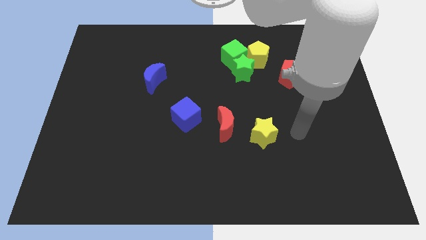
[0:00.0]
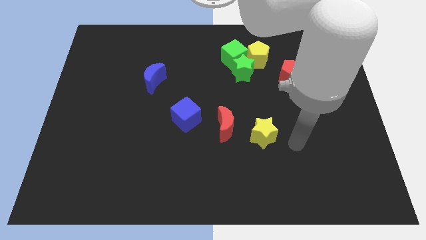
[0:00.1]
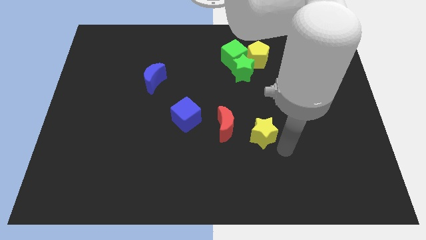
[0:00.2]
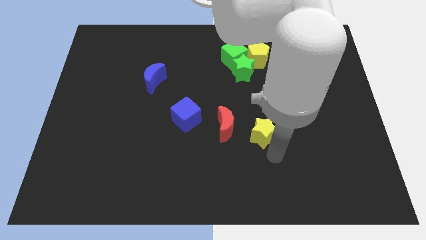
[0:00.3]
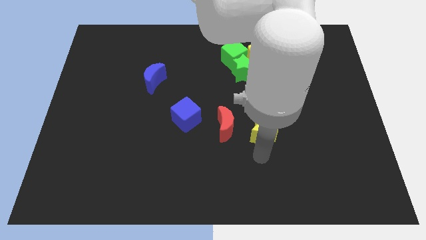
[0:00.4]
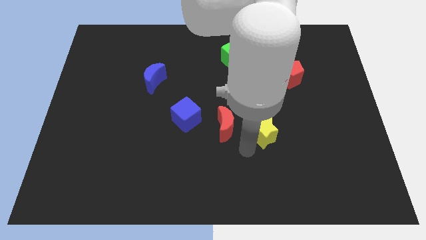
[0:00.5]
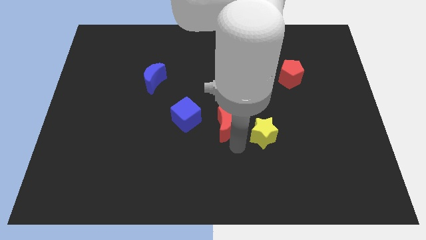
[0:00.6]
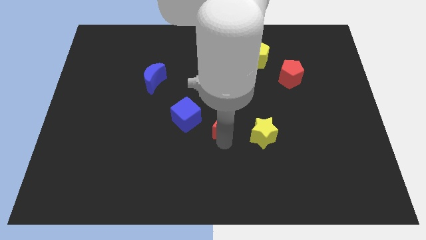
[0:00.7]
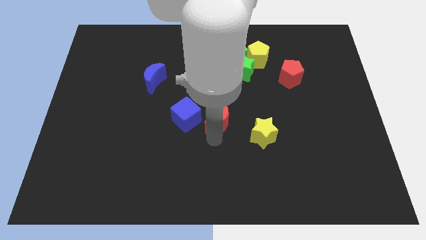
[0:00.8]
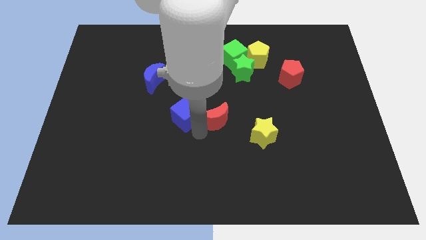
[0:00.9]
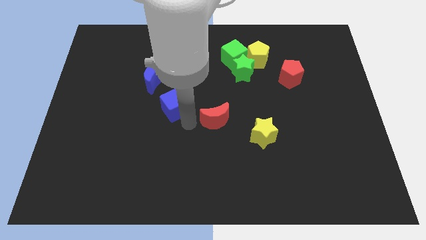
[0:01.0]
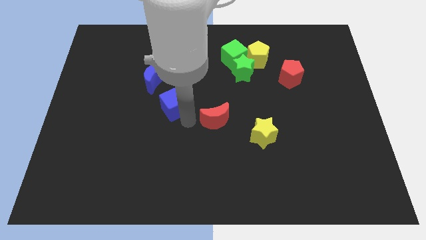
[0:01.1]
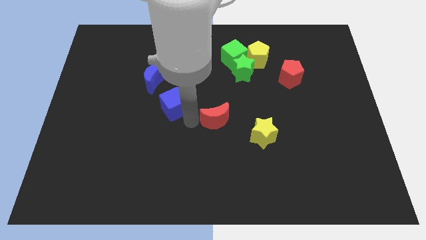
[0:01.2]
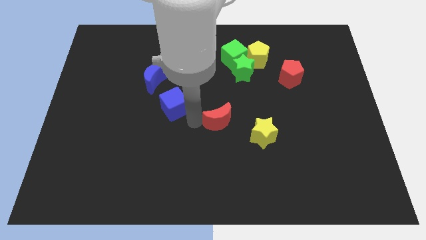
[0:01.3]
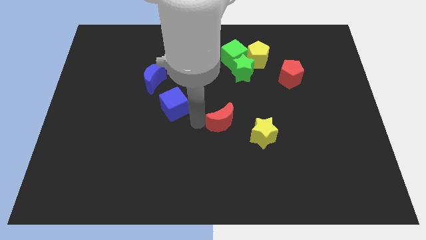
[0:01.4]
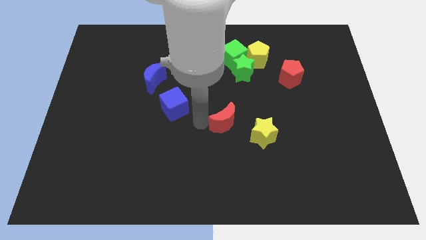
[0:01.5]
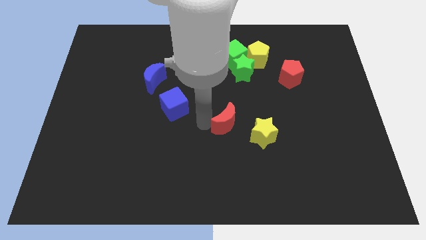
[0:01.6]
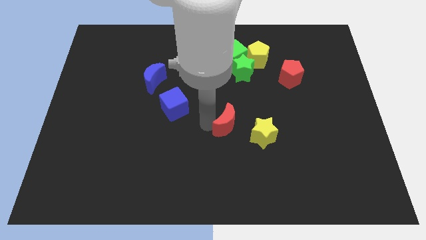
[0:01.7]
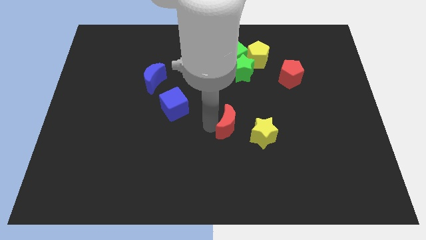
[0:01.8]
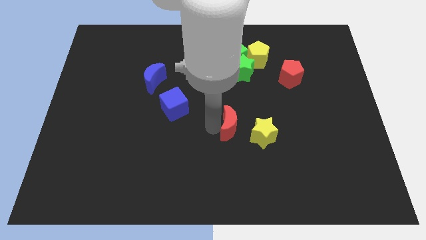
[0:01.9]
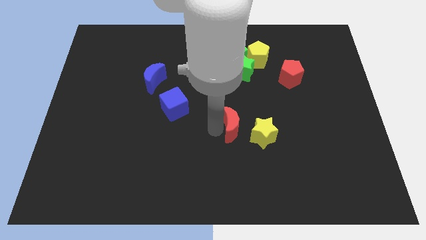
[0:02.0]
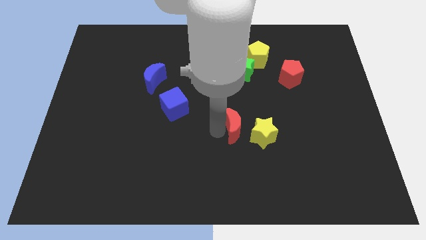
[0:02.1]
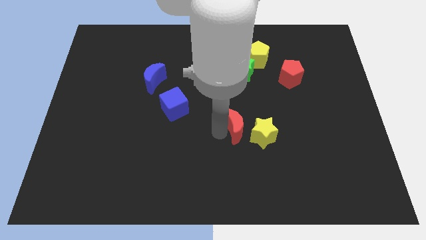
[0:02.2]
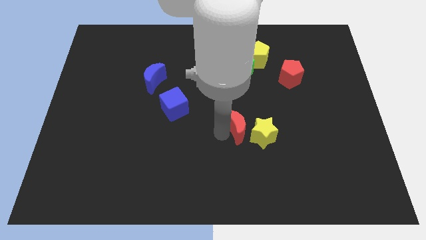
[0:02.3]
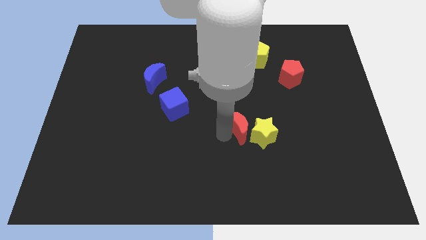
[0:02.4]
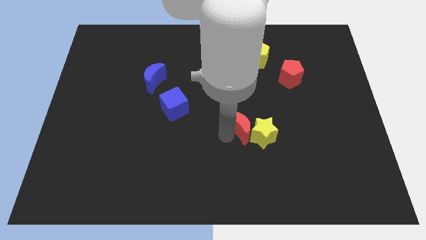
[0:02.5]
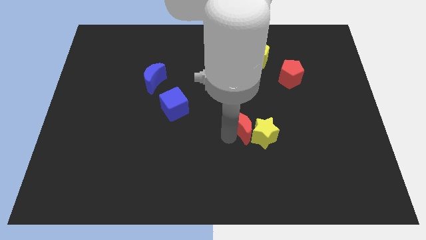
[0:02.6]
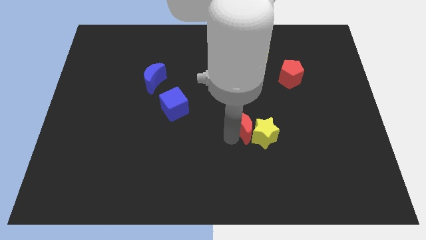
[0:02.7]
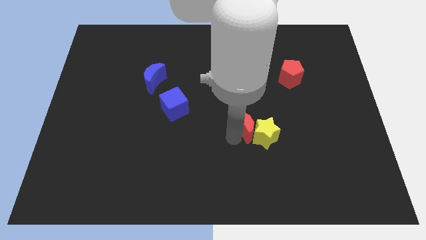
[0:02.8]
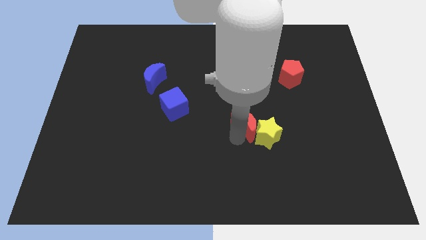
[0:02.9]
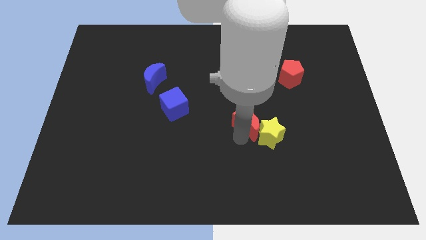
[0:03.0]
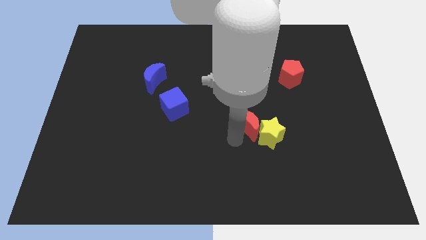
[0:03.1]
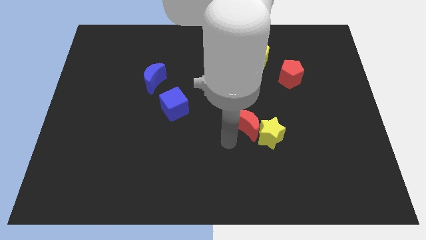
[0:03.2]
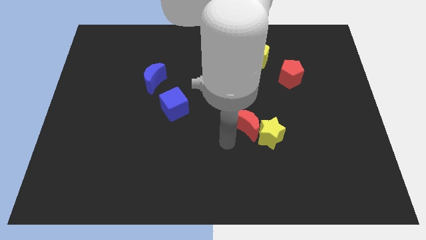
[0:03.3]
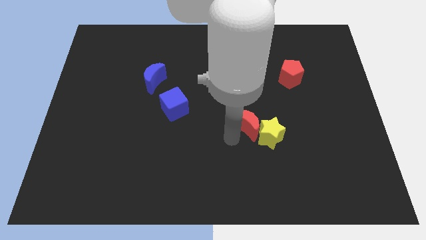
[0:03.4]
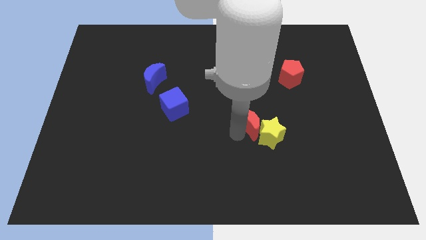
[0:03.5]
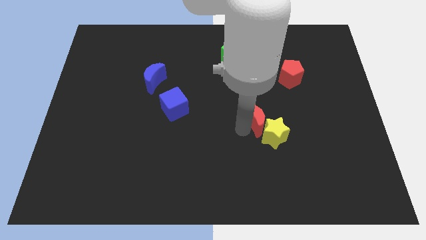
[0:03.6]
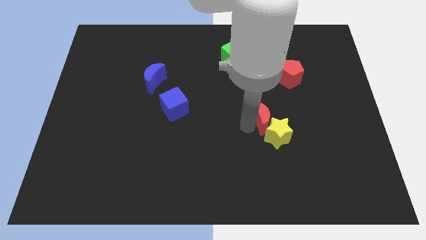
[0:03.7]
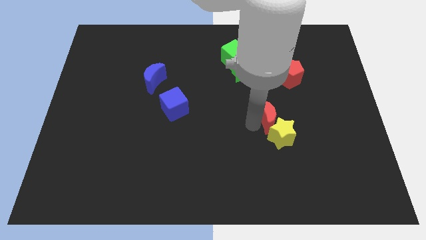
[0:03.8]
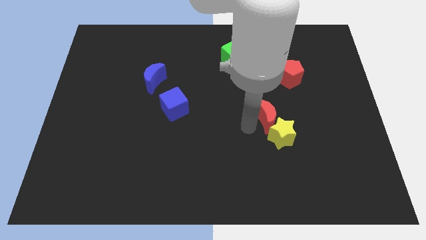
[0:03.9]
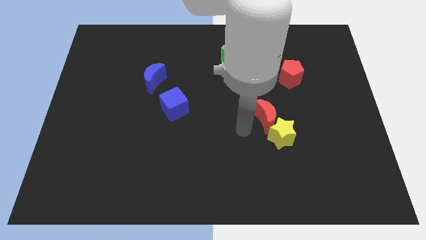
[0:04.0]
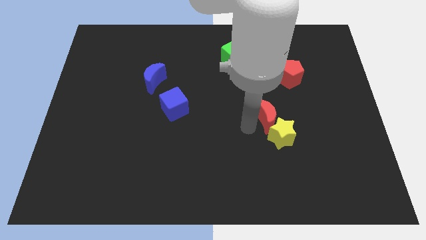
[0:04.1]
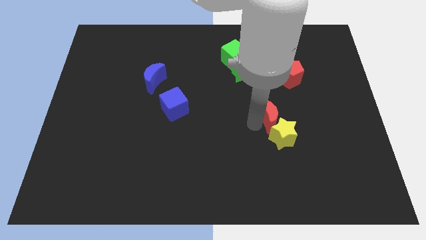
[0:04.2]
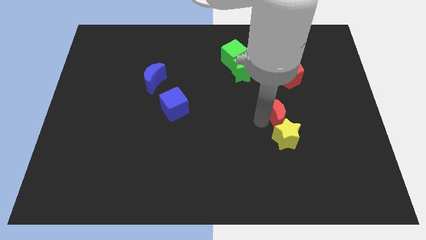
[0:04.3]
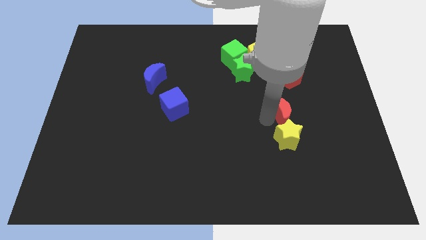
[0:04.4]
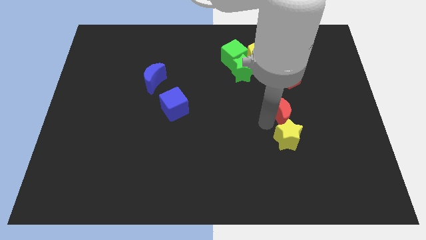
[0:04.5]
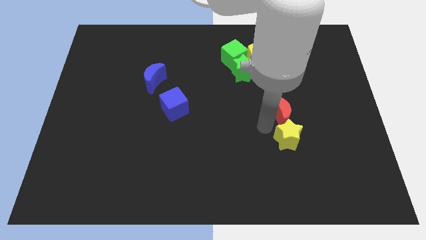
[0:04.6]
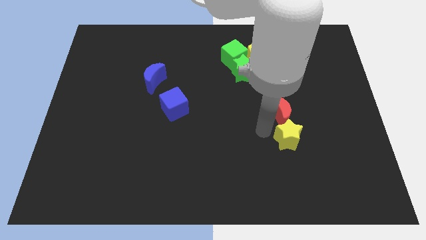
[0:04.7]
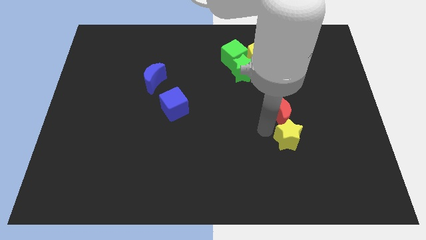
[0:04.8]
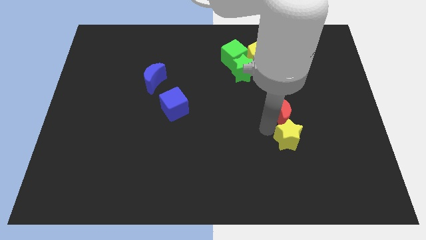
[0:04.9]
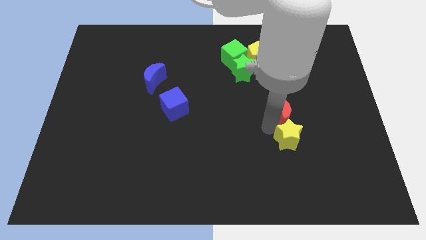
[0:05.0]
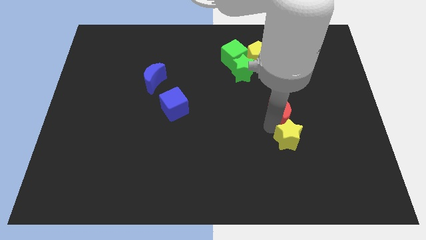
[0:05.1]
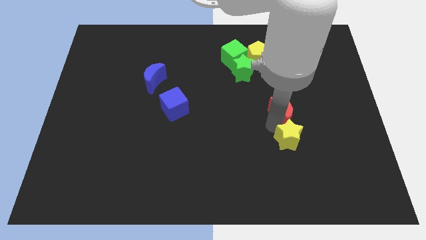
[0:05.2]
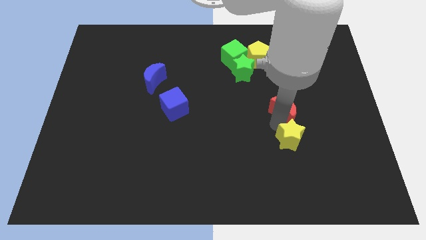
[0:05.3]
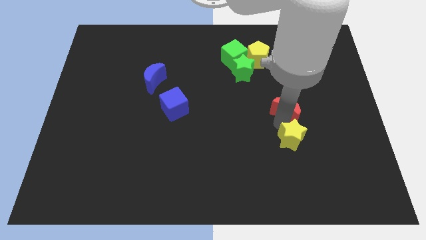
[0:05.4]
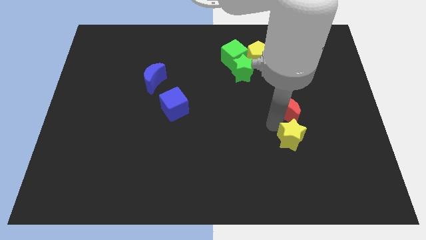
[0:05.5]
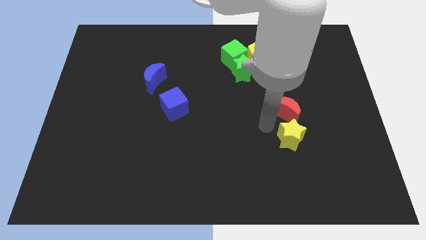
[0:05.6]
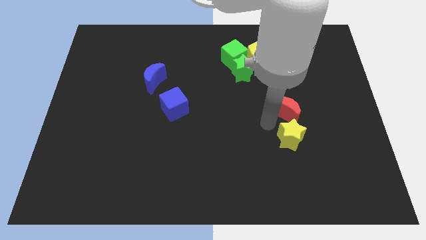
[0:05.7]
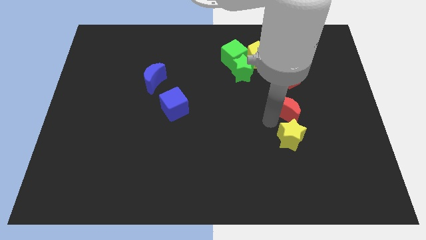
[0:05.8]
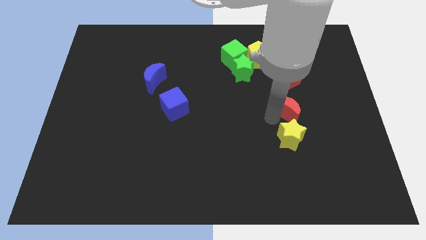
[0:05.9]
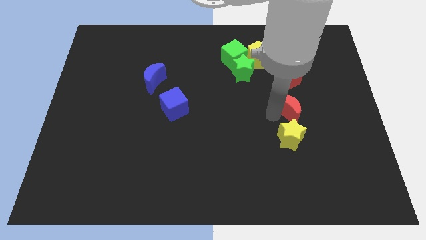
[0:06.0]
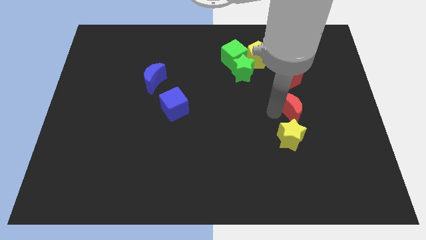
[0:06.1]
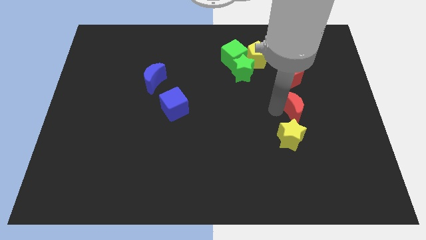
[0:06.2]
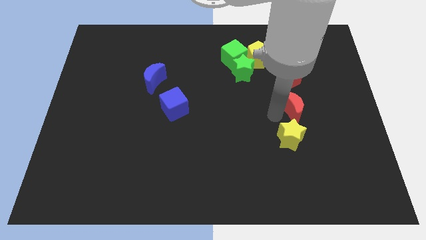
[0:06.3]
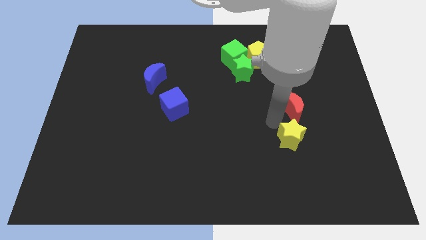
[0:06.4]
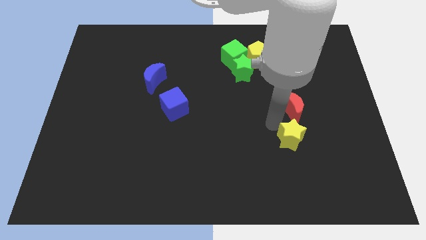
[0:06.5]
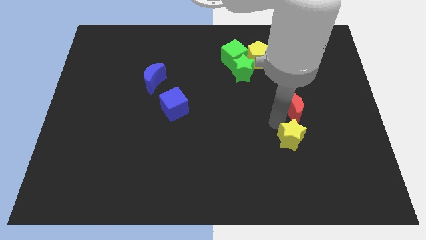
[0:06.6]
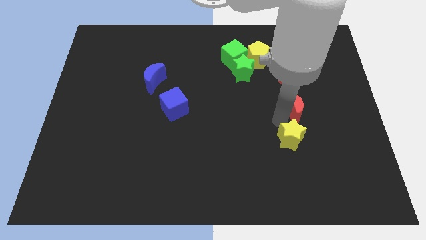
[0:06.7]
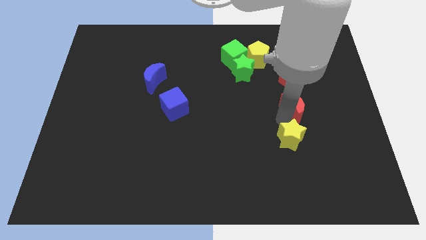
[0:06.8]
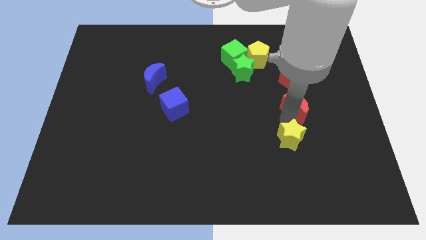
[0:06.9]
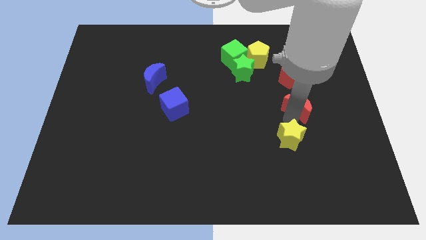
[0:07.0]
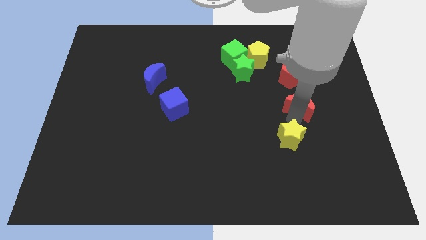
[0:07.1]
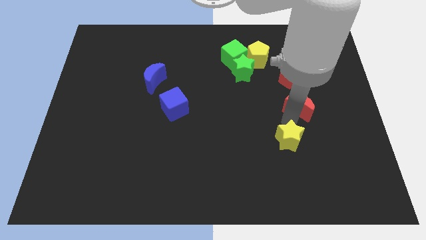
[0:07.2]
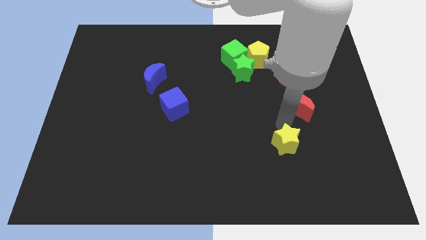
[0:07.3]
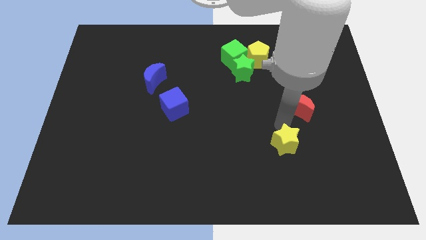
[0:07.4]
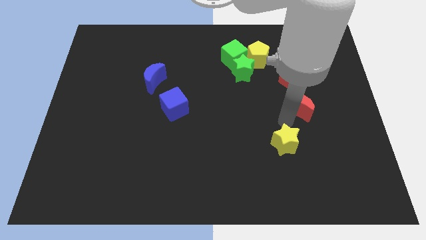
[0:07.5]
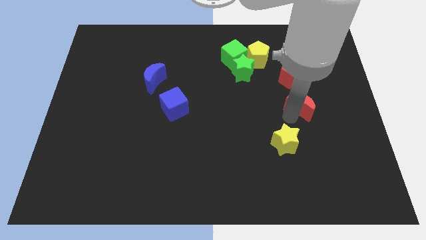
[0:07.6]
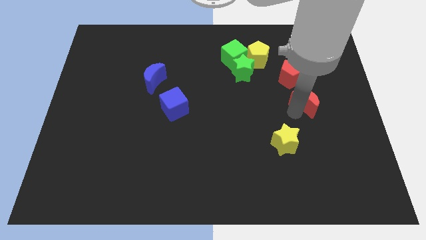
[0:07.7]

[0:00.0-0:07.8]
put the red moon to the bottom right of the red pentagon

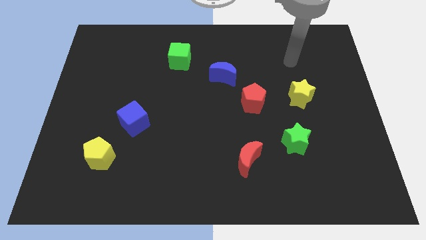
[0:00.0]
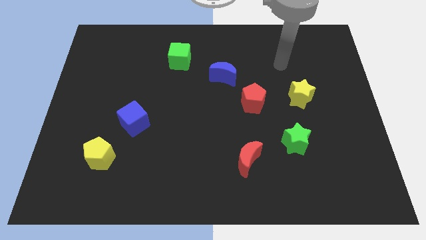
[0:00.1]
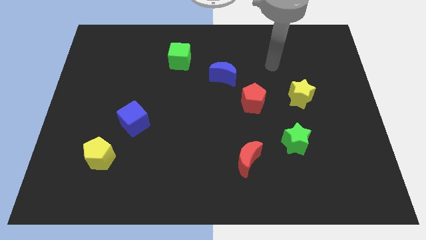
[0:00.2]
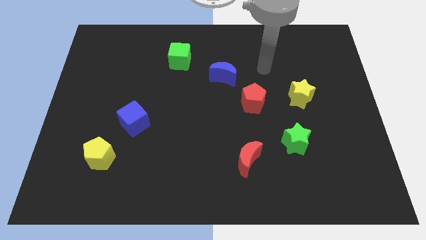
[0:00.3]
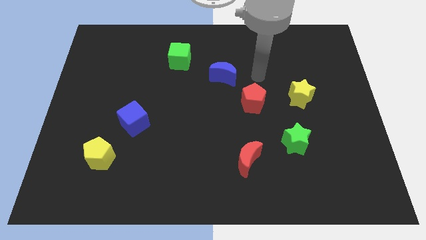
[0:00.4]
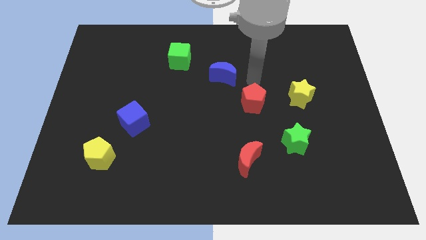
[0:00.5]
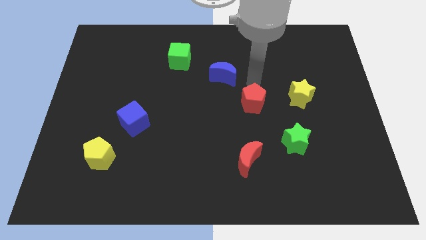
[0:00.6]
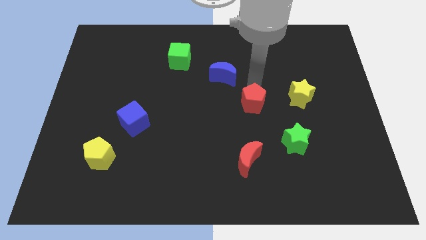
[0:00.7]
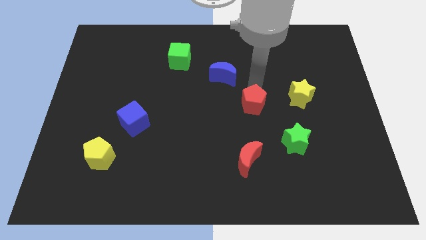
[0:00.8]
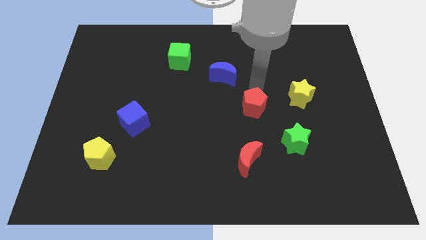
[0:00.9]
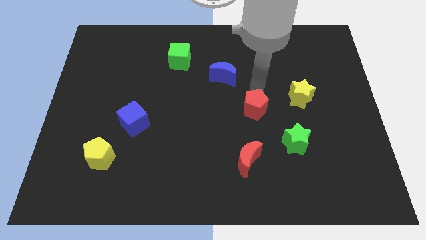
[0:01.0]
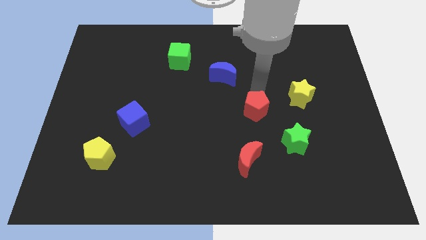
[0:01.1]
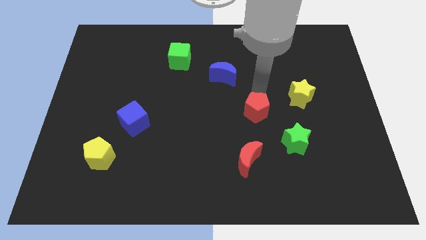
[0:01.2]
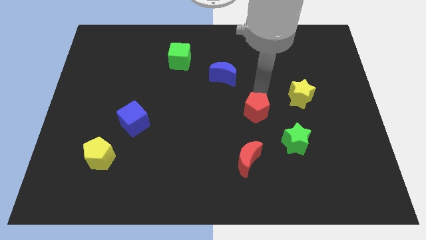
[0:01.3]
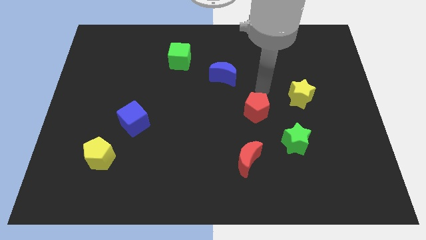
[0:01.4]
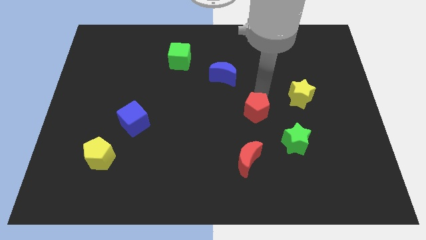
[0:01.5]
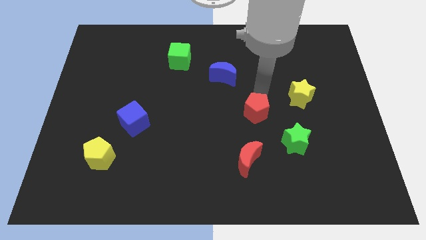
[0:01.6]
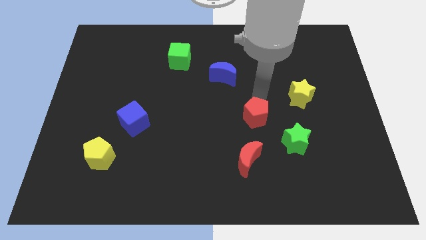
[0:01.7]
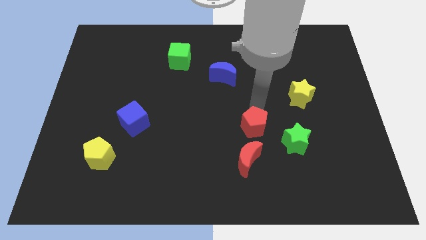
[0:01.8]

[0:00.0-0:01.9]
put the red pentagon just left of the green star
